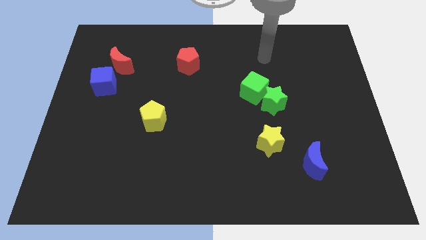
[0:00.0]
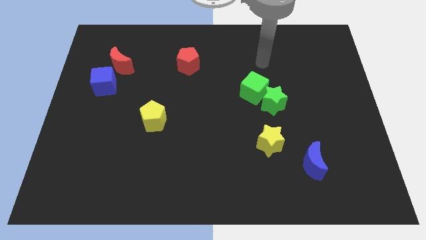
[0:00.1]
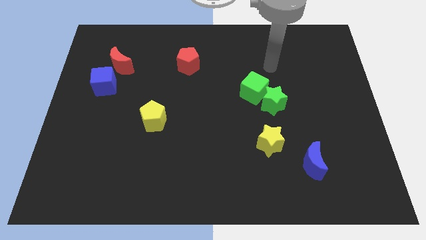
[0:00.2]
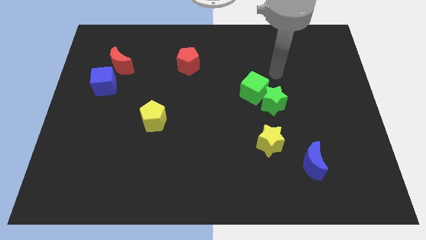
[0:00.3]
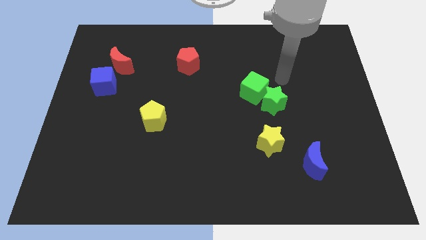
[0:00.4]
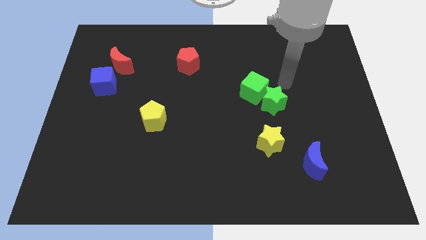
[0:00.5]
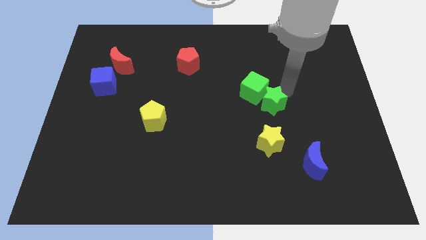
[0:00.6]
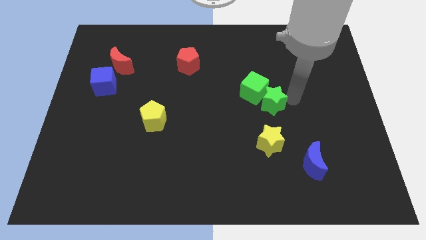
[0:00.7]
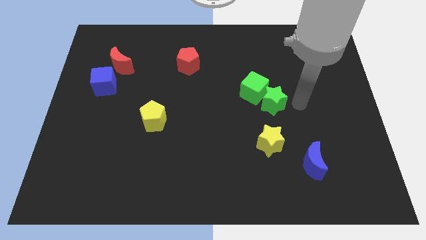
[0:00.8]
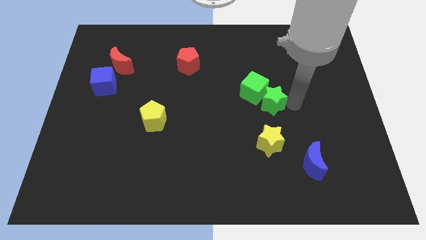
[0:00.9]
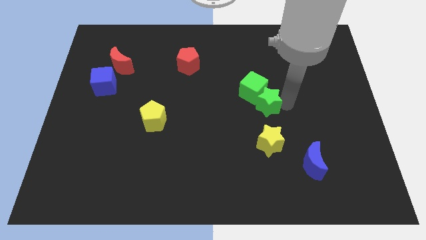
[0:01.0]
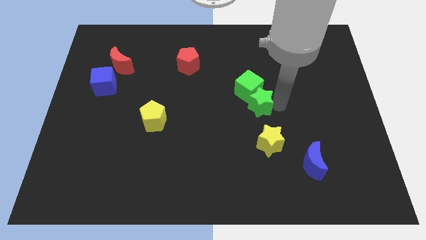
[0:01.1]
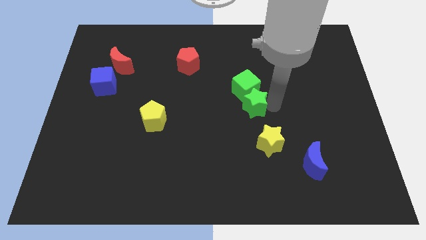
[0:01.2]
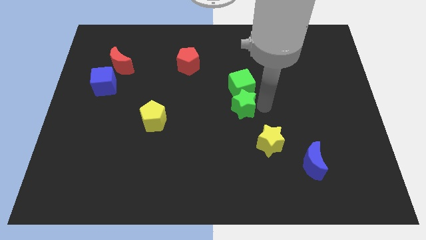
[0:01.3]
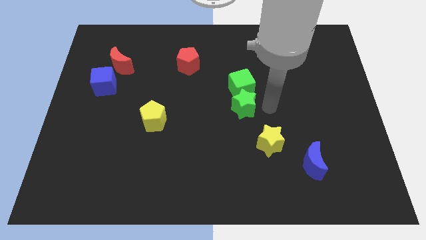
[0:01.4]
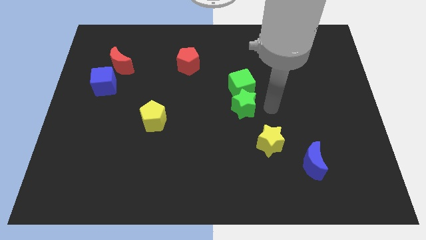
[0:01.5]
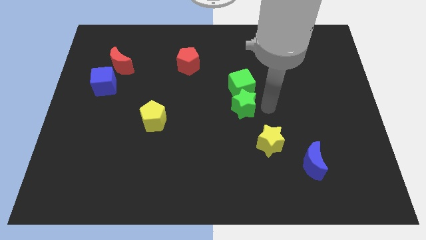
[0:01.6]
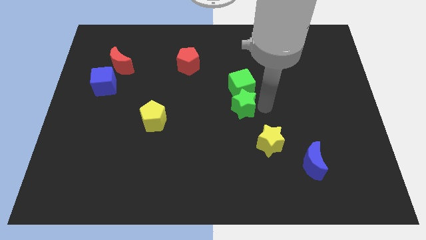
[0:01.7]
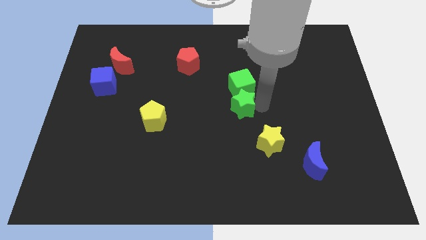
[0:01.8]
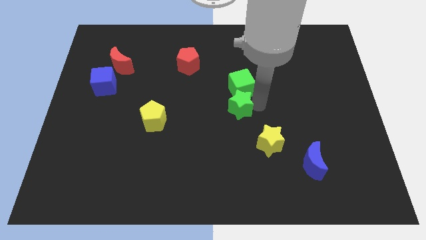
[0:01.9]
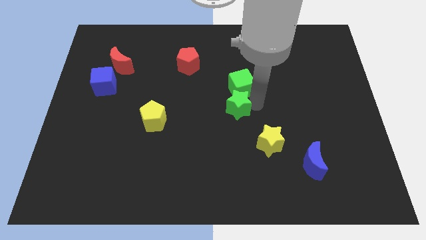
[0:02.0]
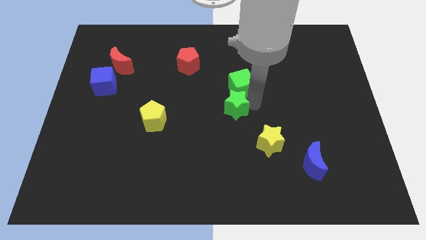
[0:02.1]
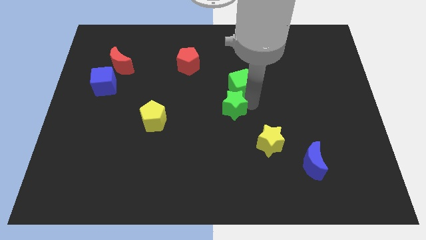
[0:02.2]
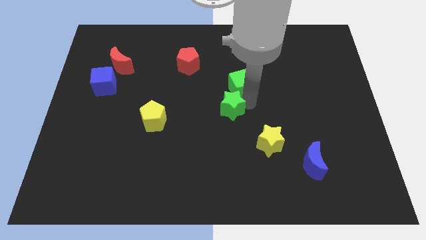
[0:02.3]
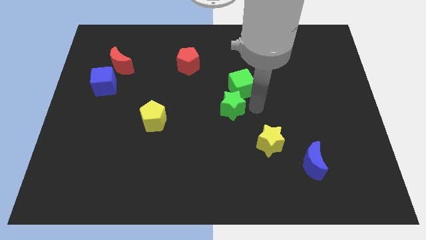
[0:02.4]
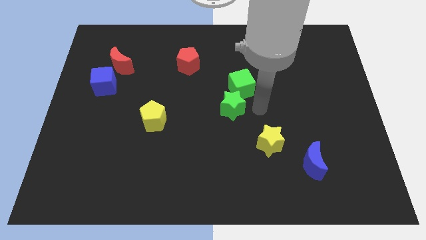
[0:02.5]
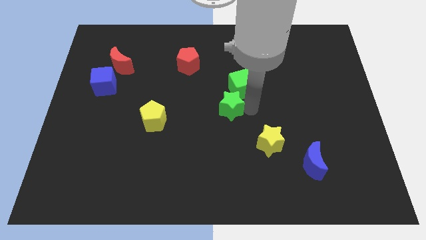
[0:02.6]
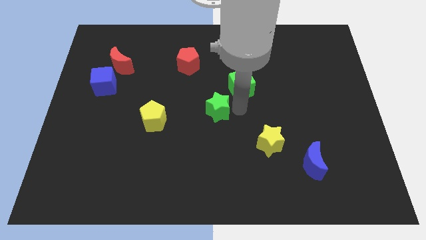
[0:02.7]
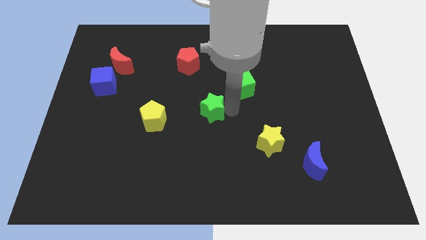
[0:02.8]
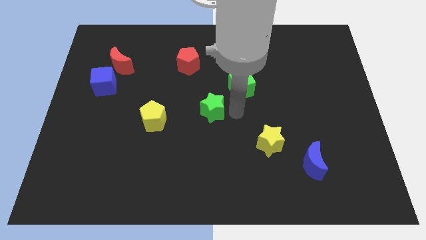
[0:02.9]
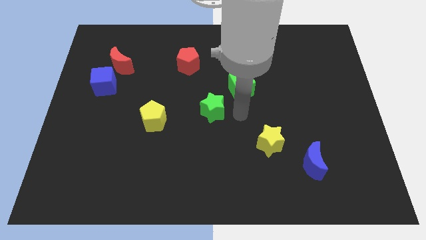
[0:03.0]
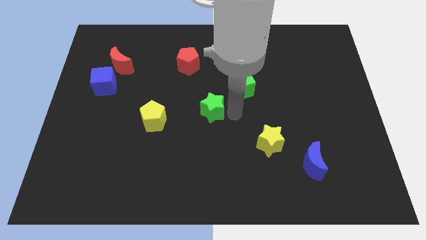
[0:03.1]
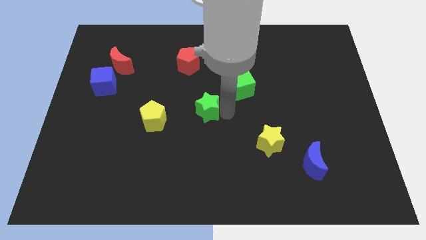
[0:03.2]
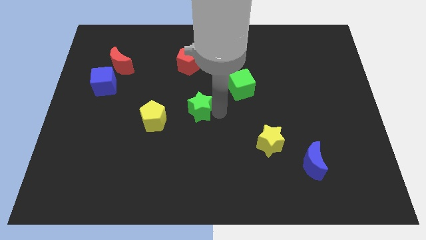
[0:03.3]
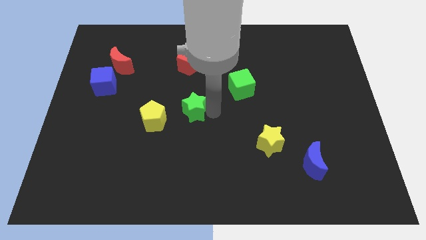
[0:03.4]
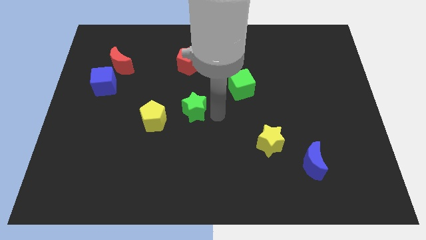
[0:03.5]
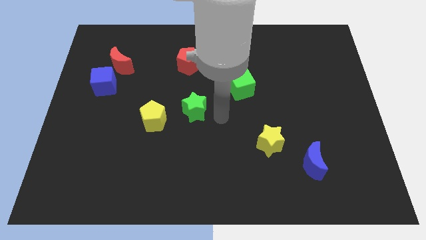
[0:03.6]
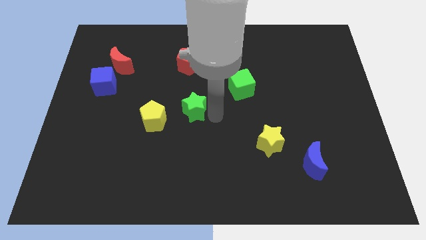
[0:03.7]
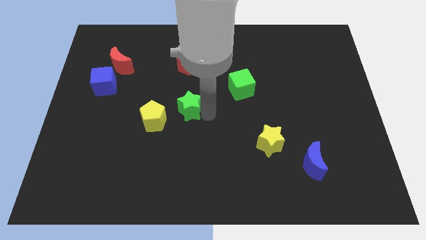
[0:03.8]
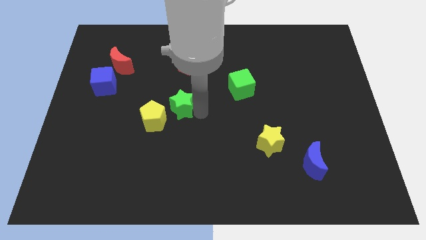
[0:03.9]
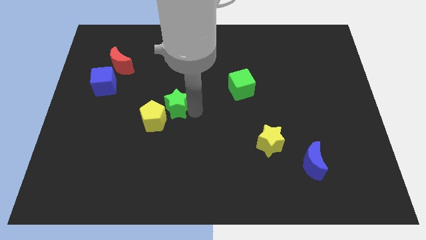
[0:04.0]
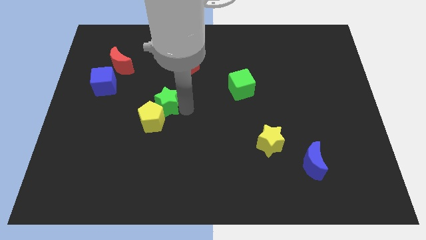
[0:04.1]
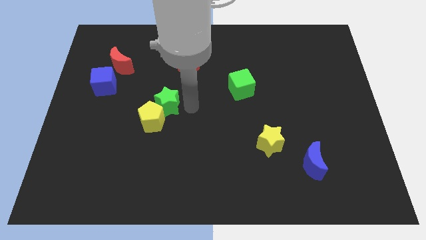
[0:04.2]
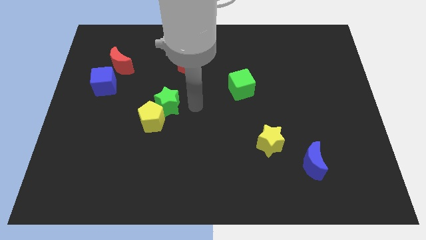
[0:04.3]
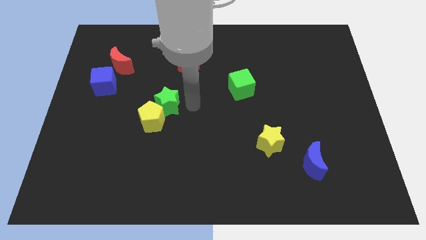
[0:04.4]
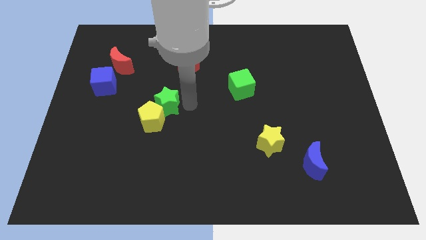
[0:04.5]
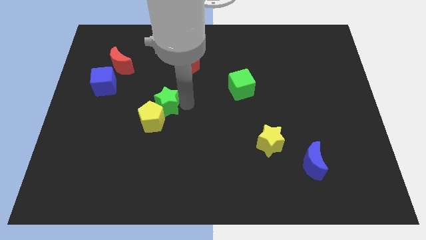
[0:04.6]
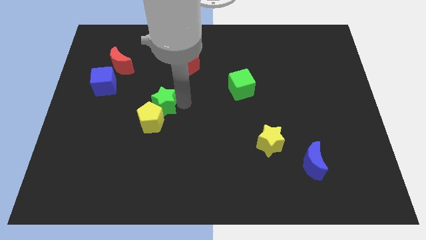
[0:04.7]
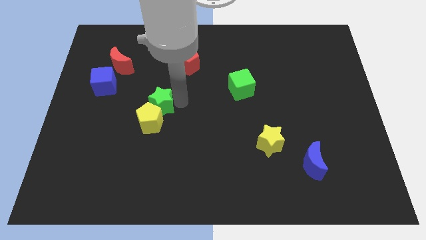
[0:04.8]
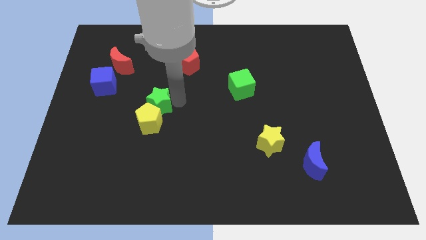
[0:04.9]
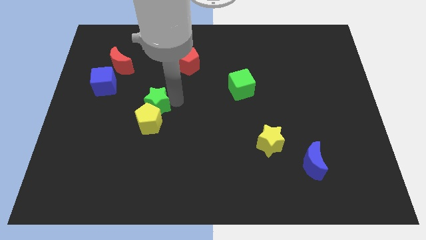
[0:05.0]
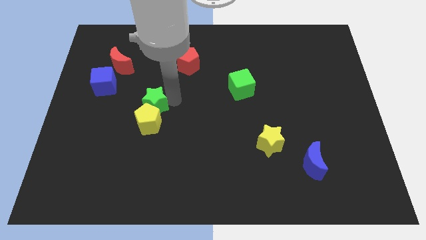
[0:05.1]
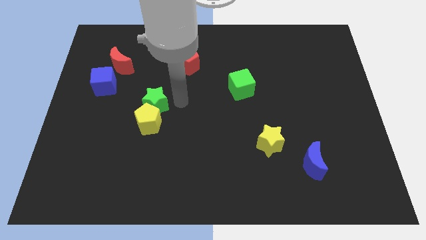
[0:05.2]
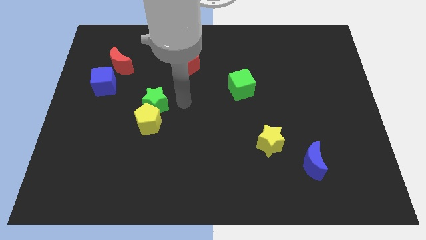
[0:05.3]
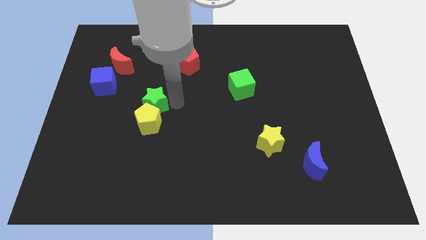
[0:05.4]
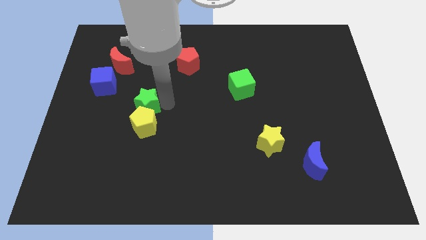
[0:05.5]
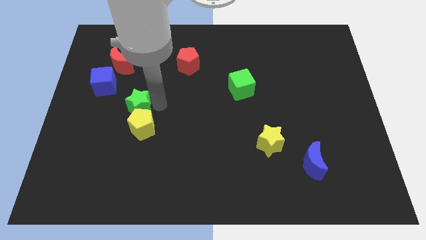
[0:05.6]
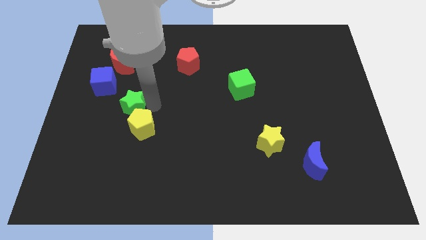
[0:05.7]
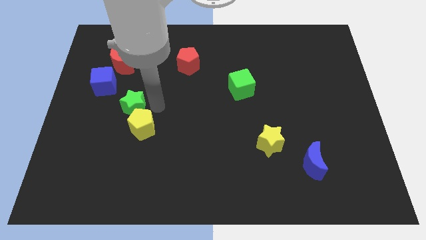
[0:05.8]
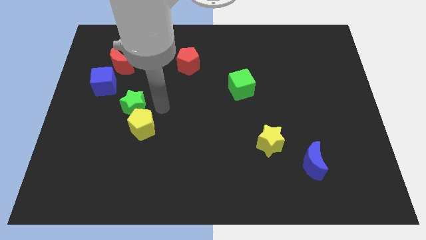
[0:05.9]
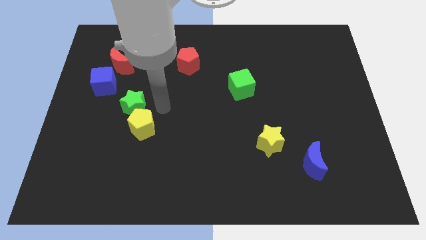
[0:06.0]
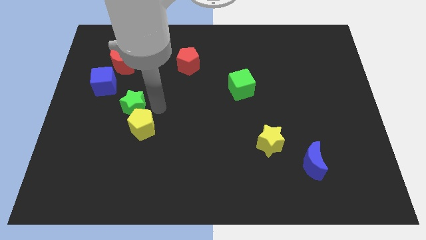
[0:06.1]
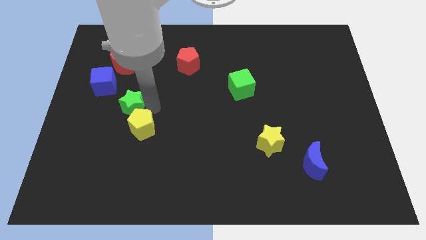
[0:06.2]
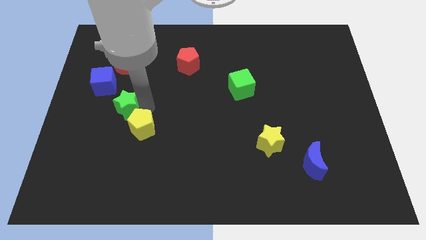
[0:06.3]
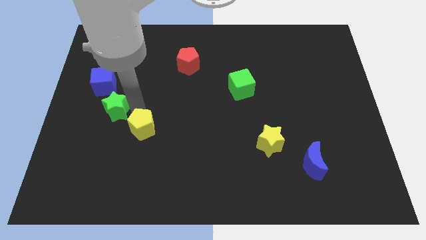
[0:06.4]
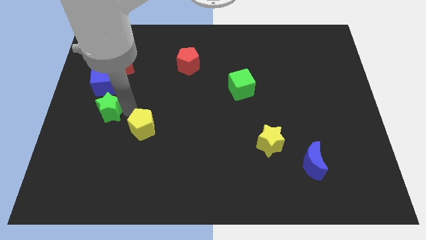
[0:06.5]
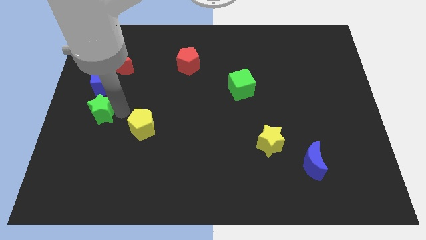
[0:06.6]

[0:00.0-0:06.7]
slide the green star to the left side
